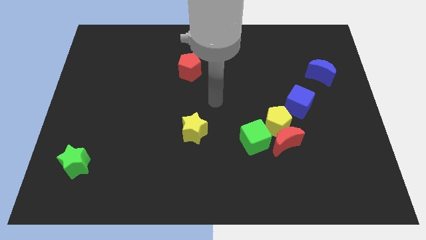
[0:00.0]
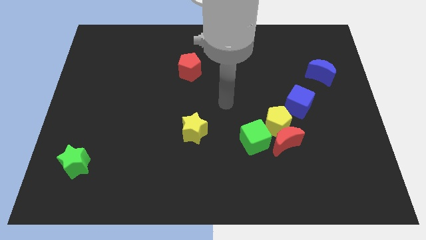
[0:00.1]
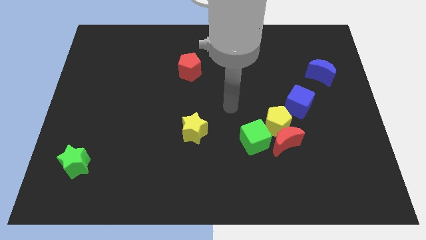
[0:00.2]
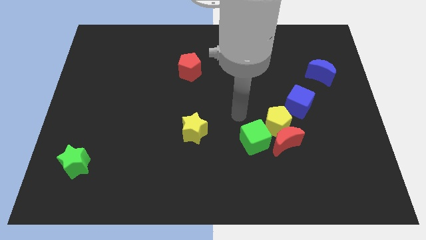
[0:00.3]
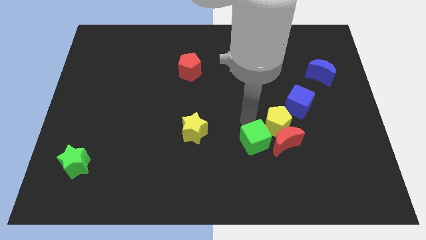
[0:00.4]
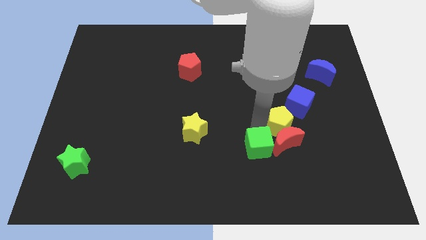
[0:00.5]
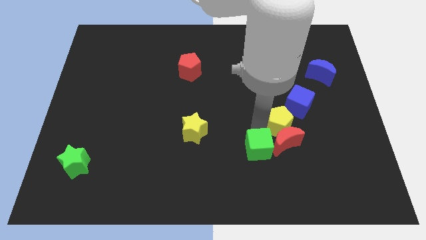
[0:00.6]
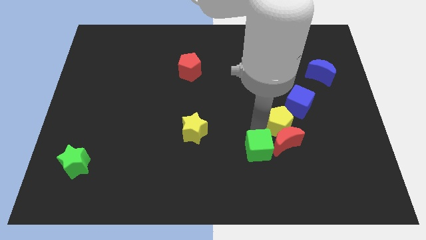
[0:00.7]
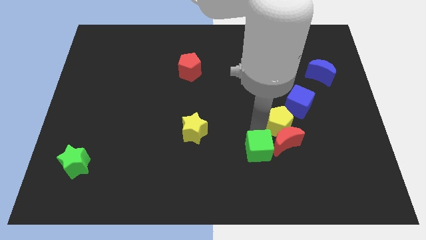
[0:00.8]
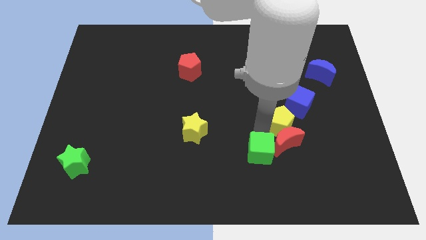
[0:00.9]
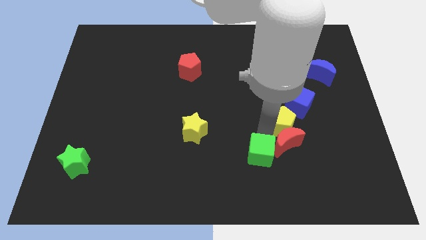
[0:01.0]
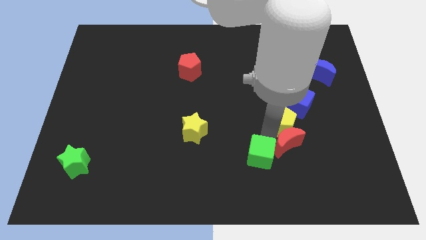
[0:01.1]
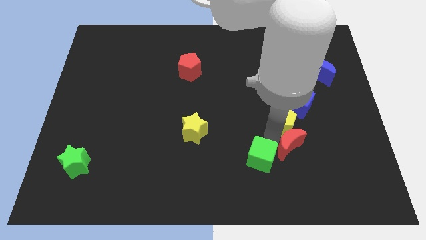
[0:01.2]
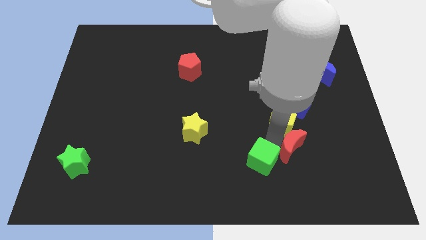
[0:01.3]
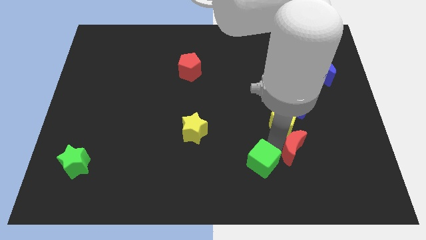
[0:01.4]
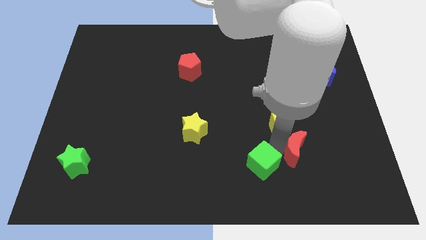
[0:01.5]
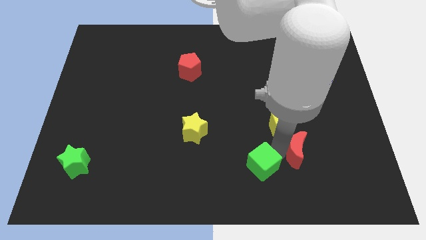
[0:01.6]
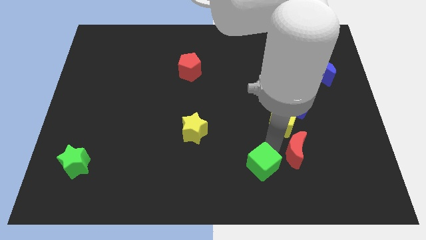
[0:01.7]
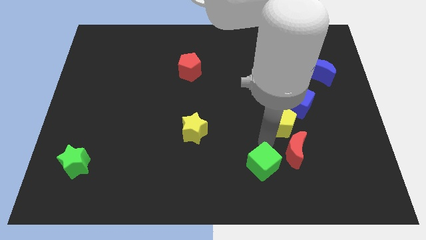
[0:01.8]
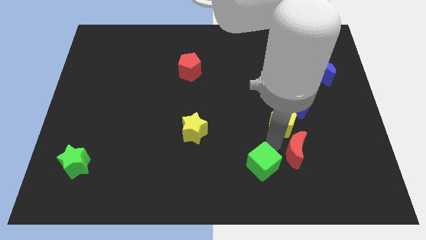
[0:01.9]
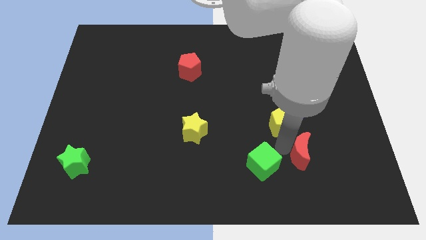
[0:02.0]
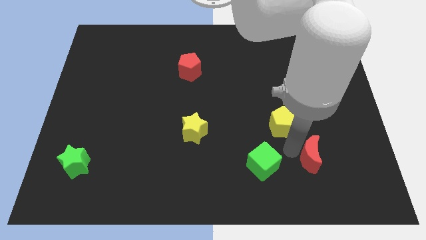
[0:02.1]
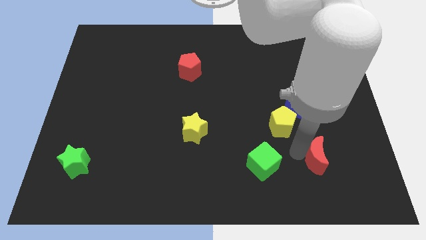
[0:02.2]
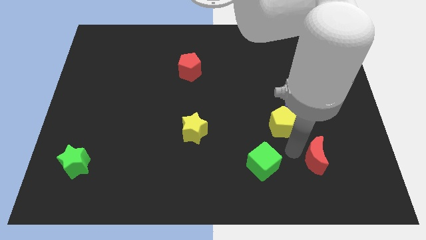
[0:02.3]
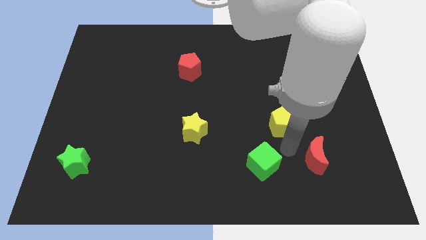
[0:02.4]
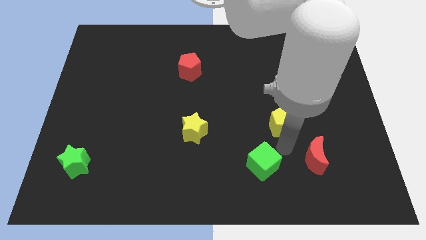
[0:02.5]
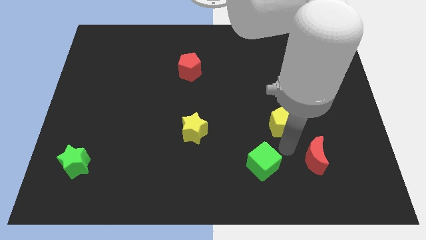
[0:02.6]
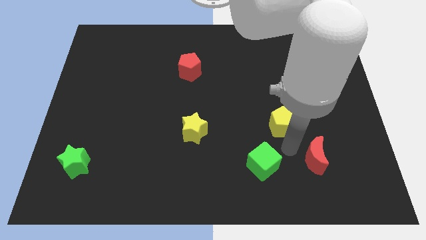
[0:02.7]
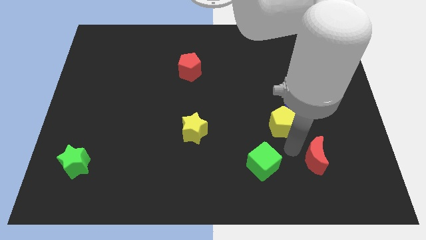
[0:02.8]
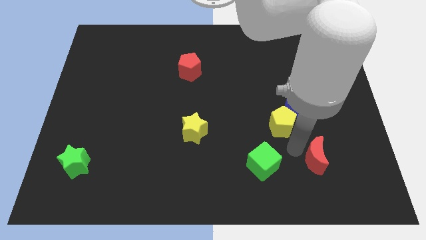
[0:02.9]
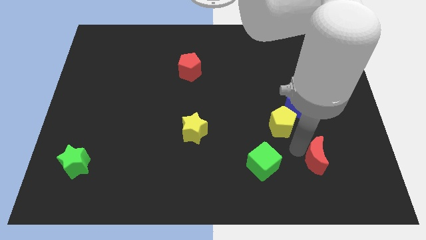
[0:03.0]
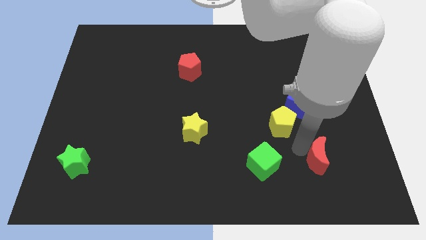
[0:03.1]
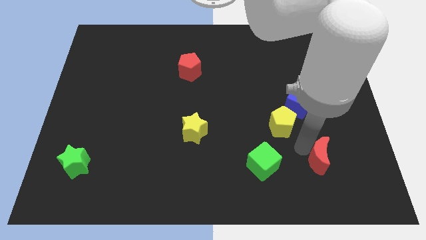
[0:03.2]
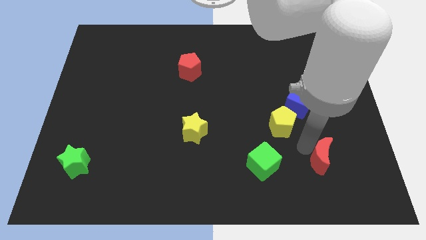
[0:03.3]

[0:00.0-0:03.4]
pull the red moon apart from the yellow pentagon and green cube

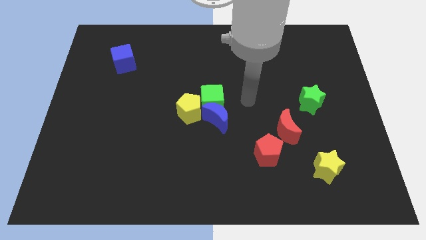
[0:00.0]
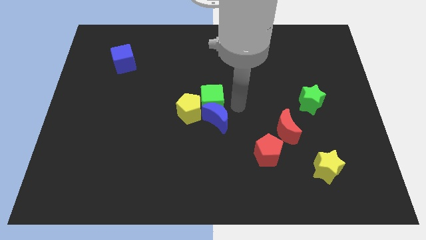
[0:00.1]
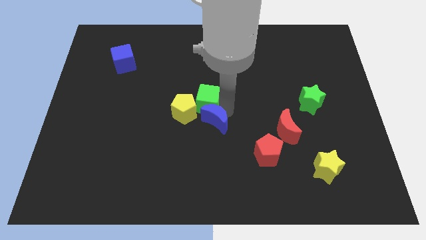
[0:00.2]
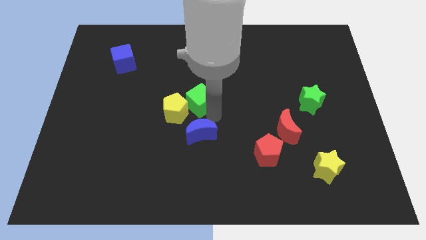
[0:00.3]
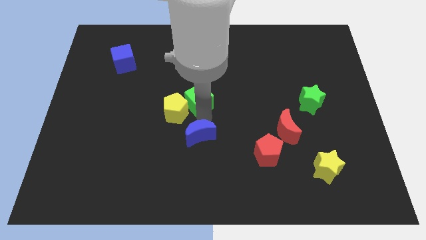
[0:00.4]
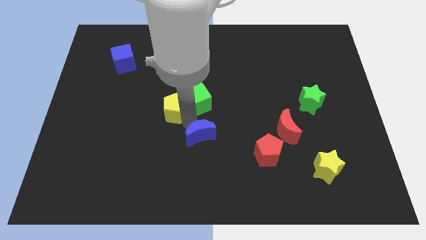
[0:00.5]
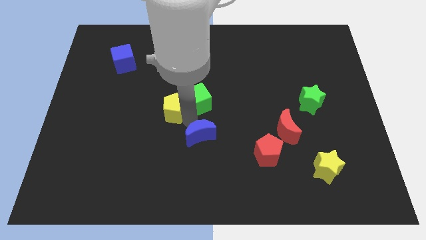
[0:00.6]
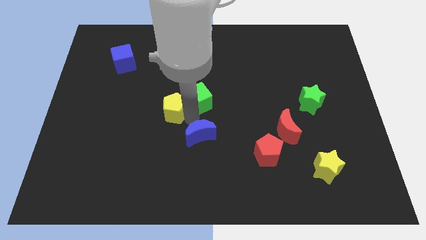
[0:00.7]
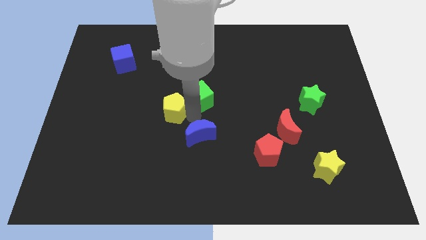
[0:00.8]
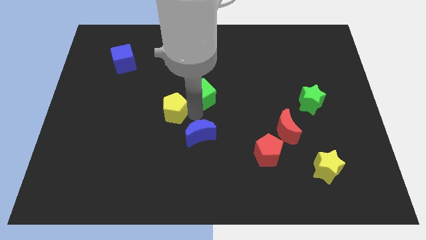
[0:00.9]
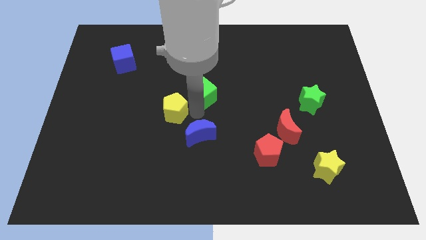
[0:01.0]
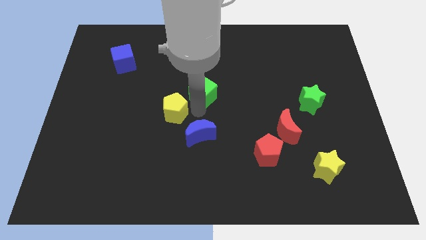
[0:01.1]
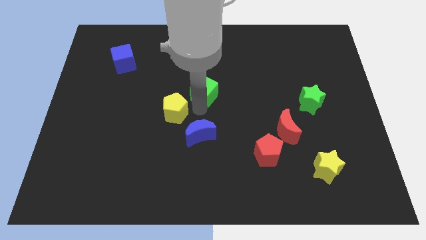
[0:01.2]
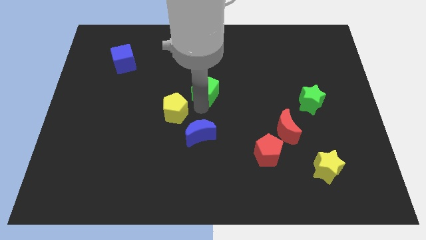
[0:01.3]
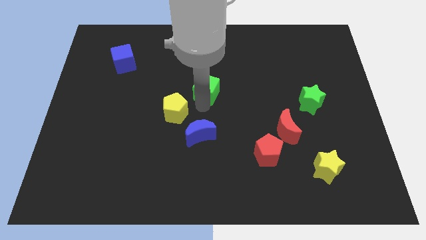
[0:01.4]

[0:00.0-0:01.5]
separate the green cube from the blue moon and yellow pentagon

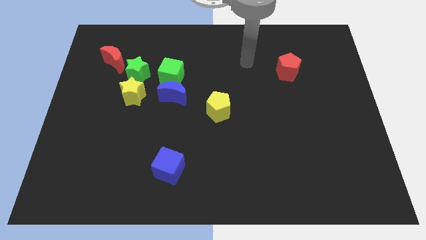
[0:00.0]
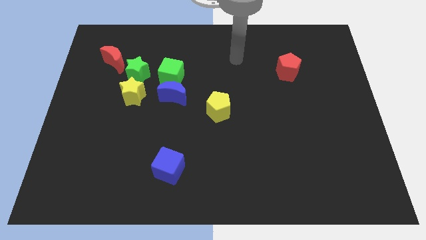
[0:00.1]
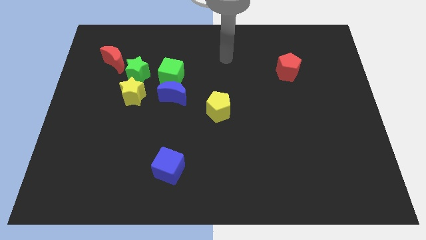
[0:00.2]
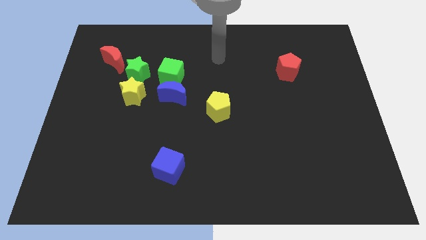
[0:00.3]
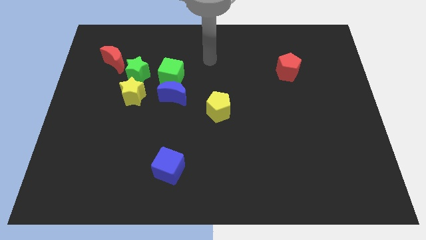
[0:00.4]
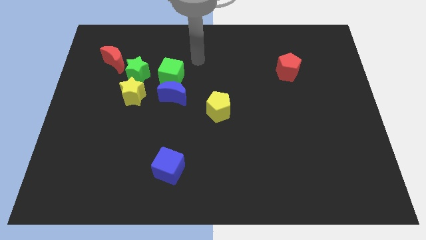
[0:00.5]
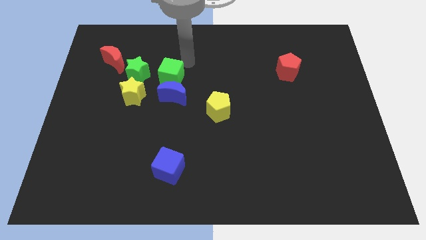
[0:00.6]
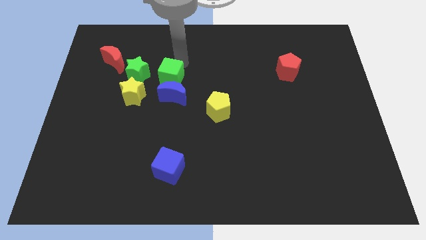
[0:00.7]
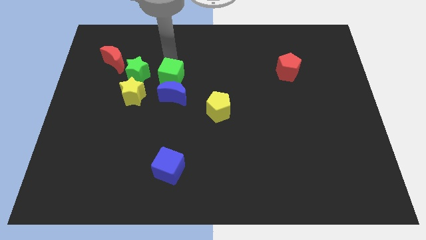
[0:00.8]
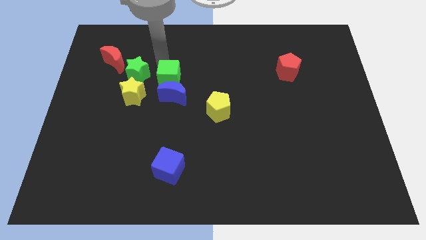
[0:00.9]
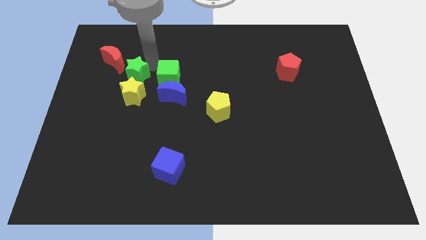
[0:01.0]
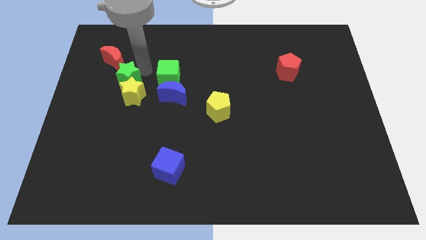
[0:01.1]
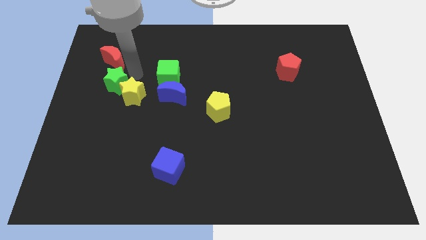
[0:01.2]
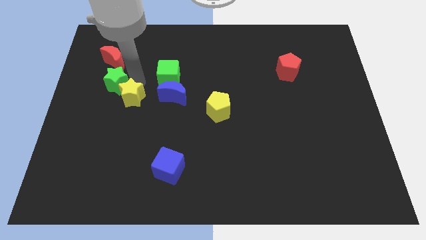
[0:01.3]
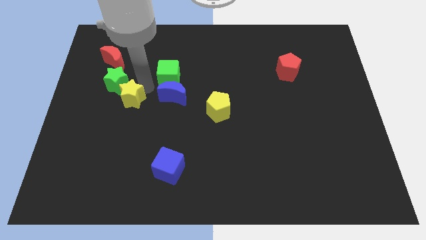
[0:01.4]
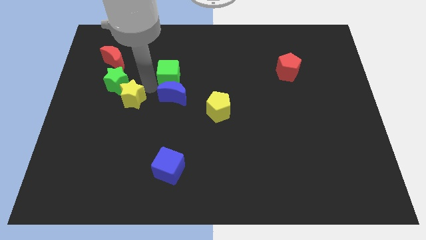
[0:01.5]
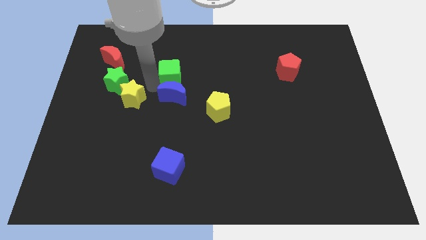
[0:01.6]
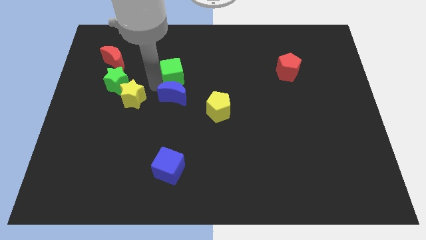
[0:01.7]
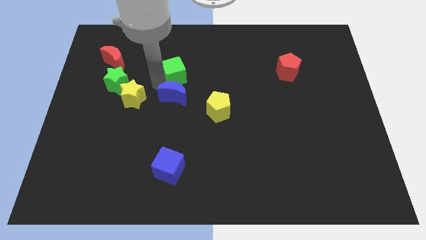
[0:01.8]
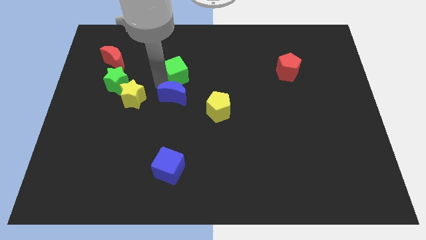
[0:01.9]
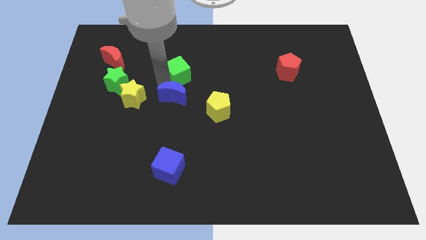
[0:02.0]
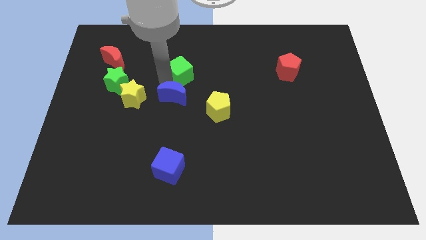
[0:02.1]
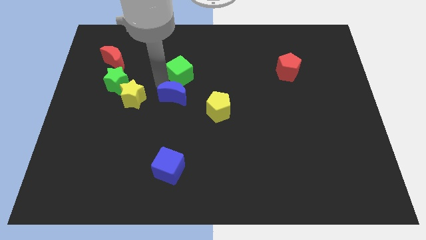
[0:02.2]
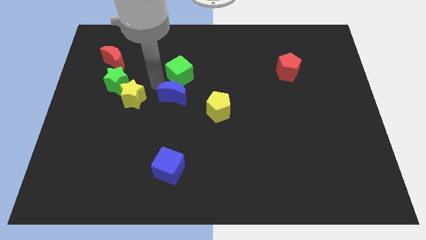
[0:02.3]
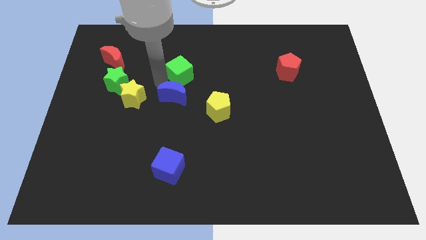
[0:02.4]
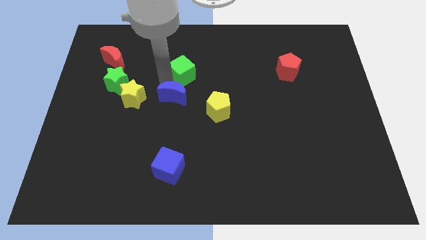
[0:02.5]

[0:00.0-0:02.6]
pull the green cube apart from the blue moon and green star

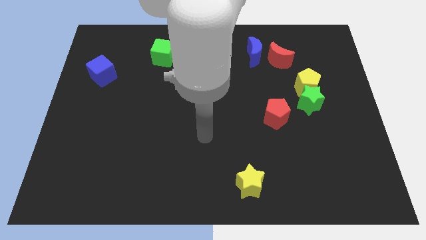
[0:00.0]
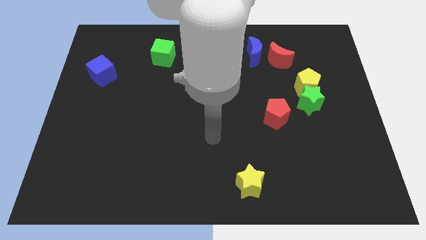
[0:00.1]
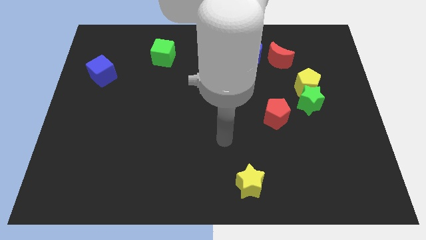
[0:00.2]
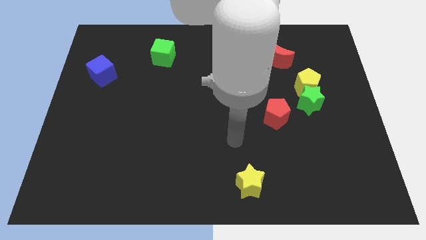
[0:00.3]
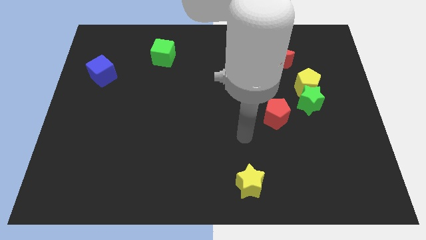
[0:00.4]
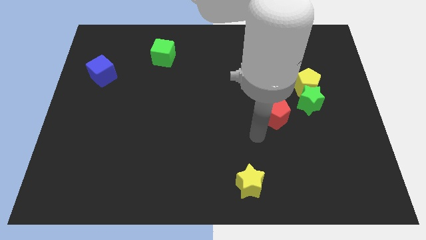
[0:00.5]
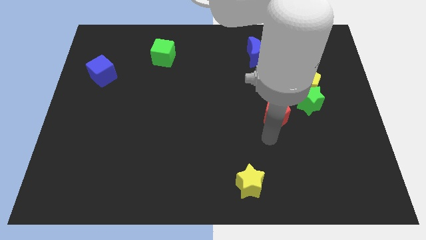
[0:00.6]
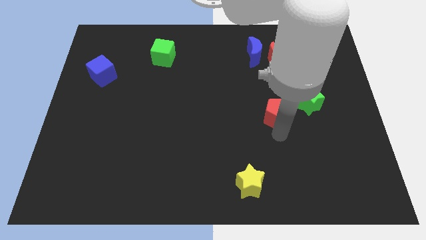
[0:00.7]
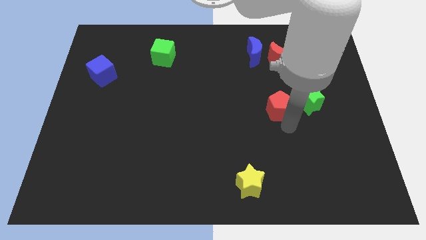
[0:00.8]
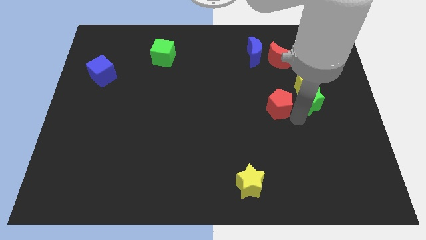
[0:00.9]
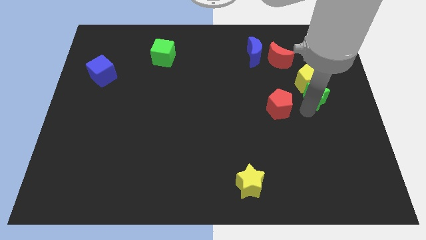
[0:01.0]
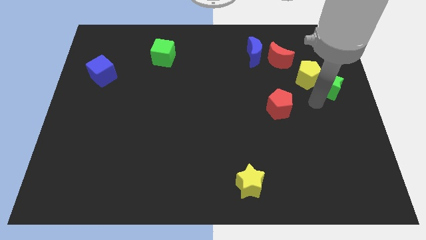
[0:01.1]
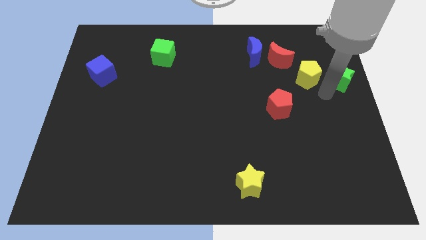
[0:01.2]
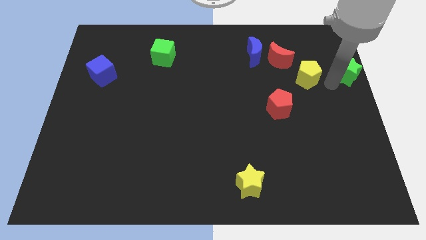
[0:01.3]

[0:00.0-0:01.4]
move the yellow pentagon away from the green star

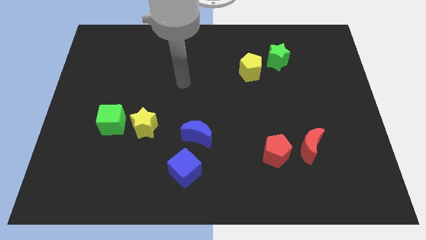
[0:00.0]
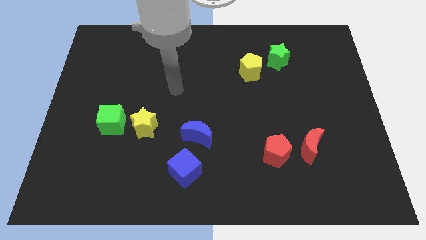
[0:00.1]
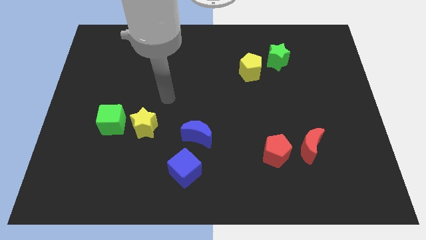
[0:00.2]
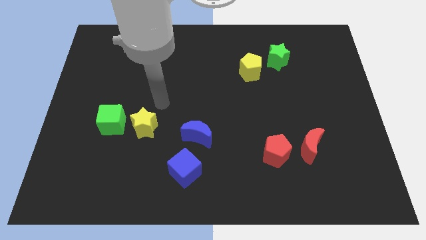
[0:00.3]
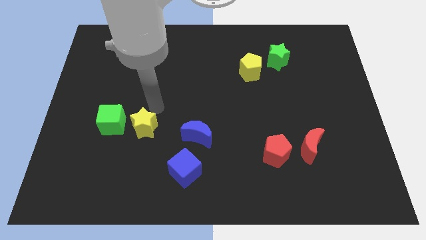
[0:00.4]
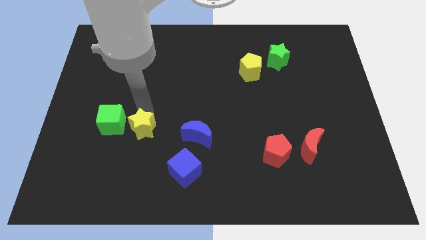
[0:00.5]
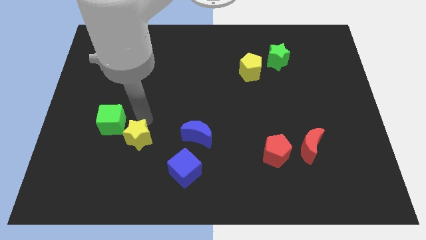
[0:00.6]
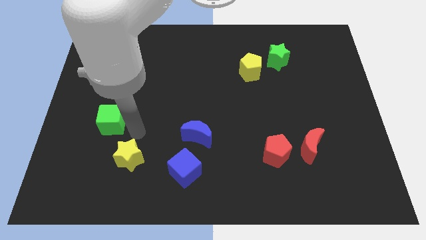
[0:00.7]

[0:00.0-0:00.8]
pull the green cube apart from the yellow star
